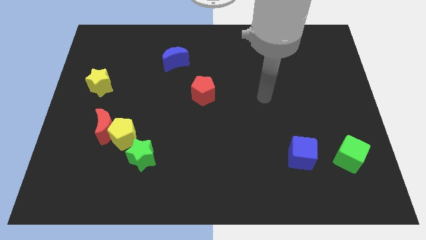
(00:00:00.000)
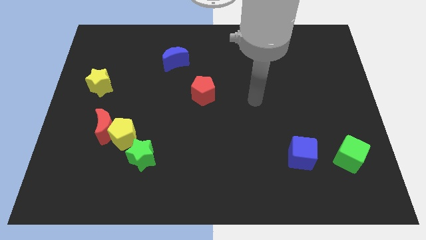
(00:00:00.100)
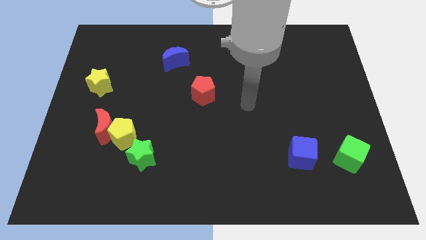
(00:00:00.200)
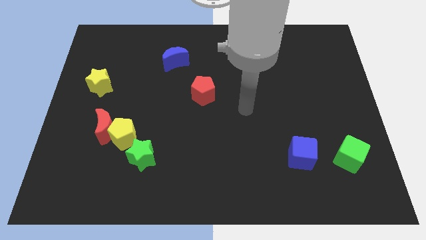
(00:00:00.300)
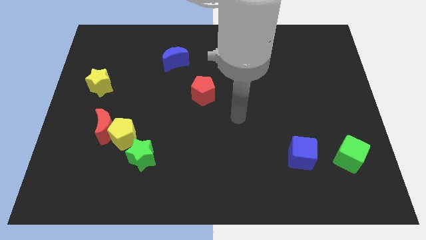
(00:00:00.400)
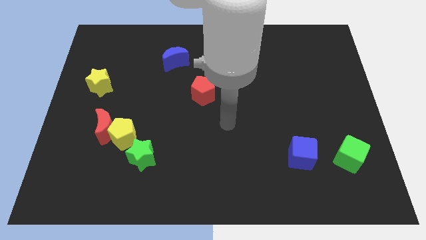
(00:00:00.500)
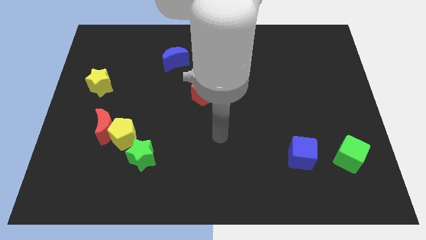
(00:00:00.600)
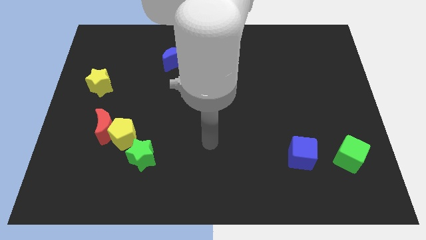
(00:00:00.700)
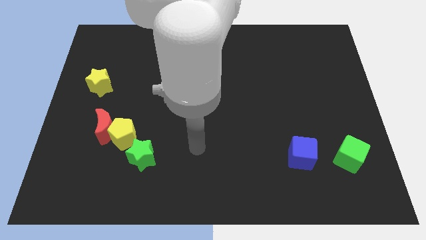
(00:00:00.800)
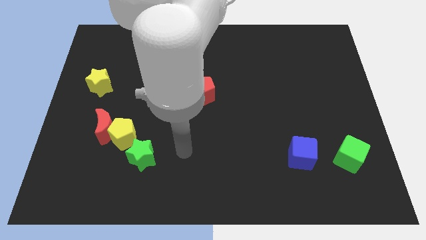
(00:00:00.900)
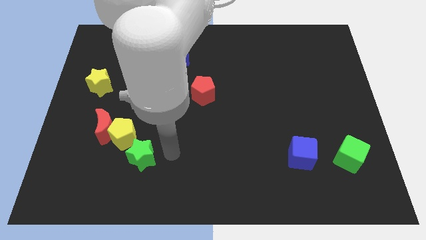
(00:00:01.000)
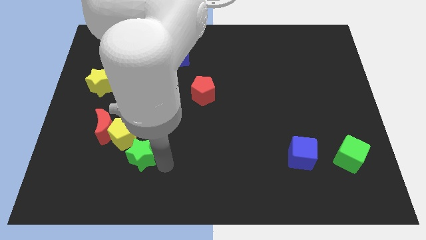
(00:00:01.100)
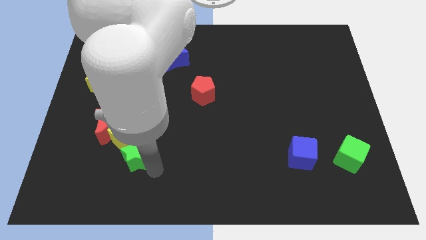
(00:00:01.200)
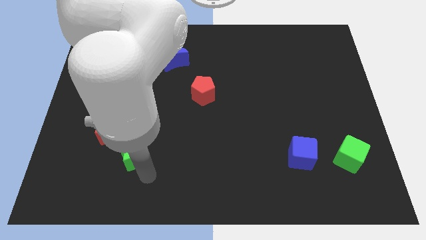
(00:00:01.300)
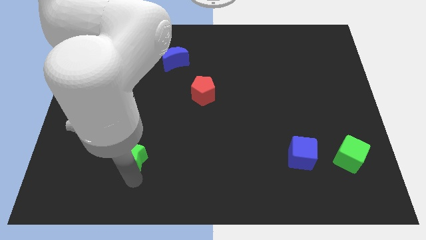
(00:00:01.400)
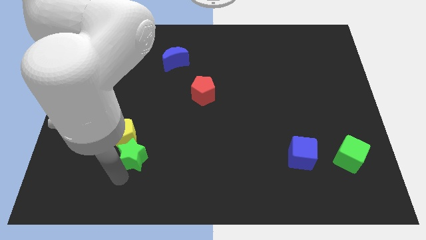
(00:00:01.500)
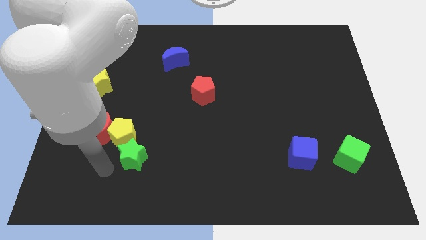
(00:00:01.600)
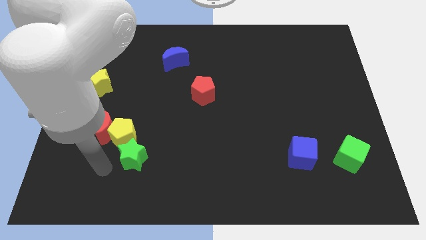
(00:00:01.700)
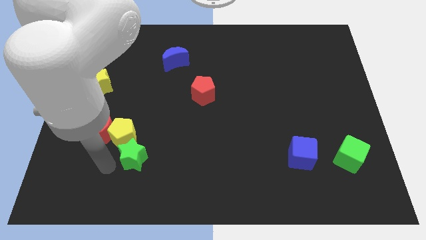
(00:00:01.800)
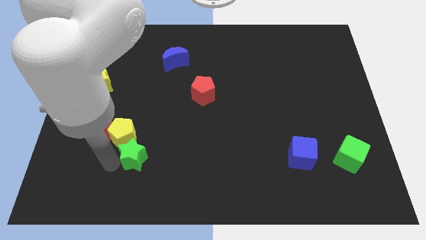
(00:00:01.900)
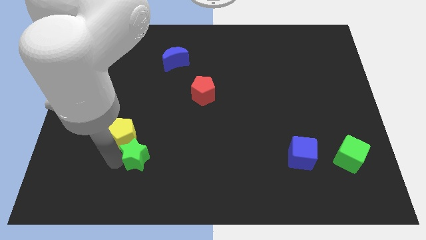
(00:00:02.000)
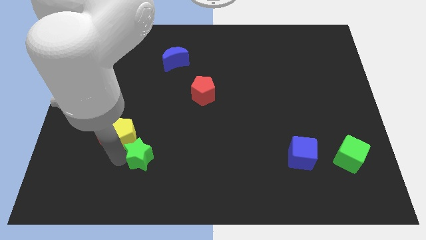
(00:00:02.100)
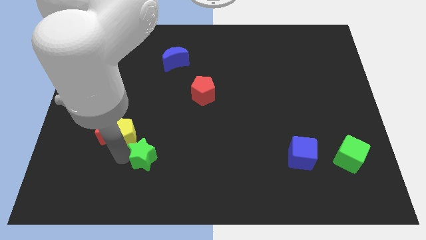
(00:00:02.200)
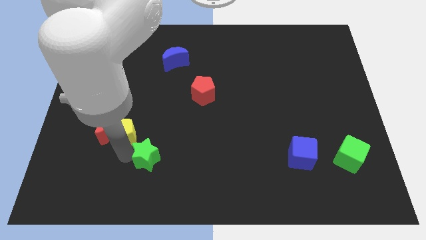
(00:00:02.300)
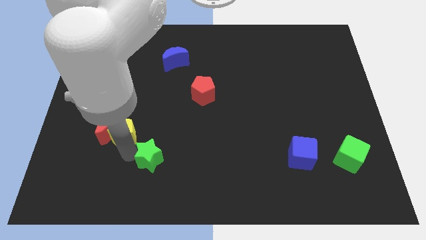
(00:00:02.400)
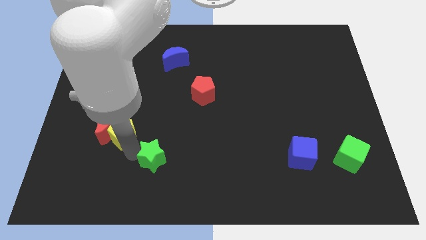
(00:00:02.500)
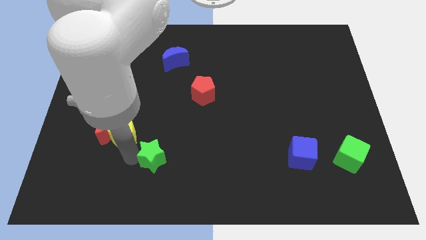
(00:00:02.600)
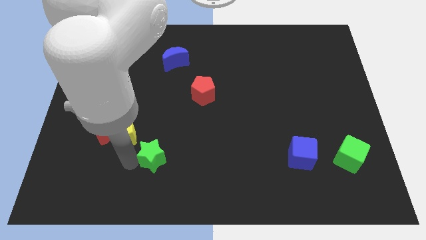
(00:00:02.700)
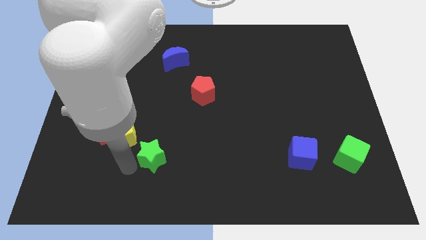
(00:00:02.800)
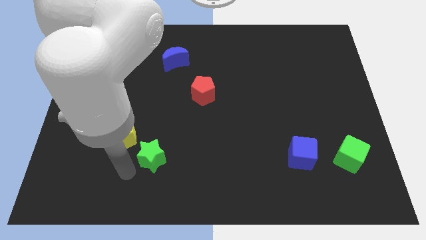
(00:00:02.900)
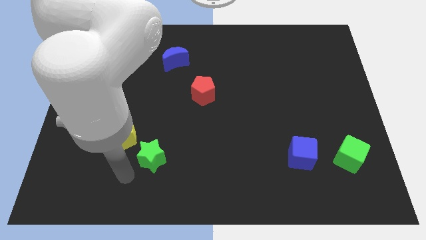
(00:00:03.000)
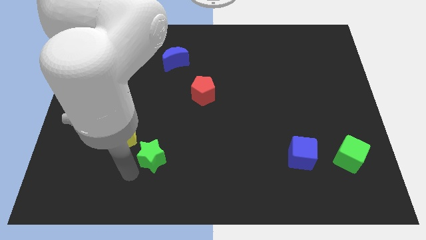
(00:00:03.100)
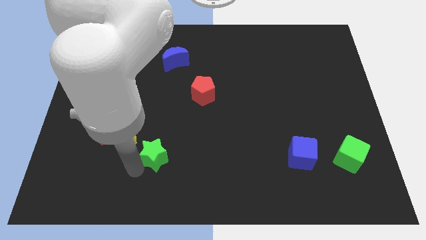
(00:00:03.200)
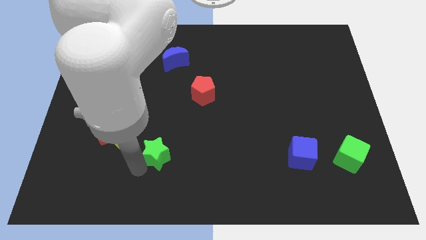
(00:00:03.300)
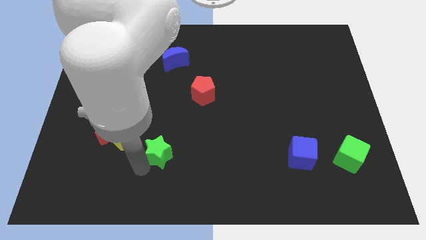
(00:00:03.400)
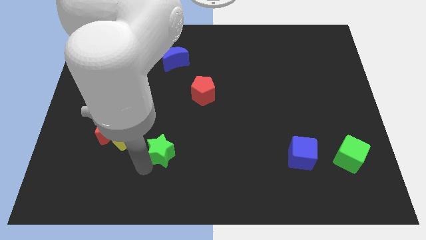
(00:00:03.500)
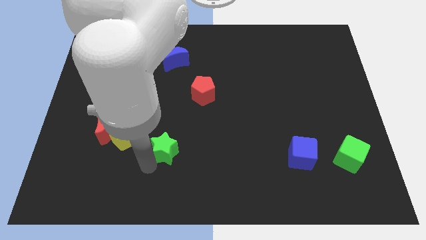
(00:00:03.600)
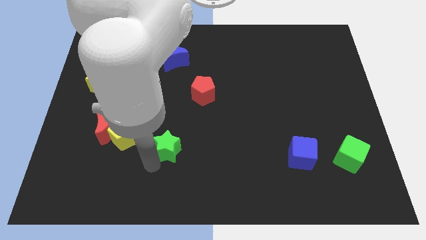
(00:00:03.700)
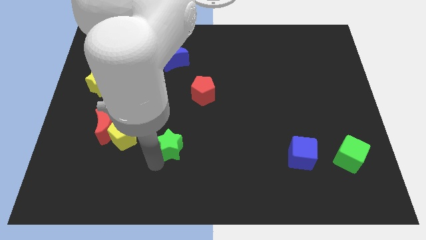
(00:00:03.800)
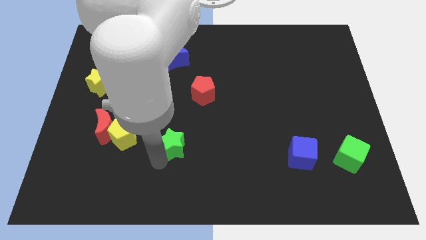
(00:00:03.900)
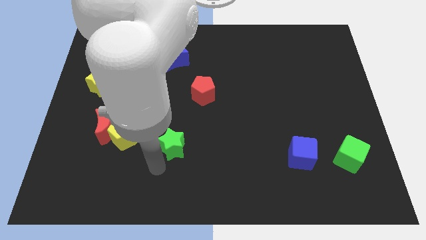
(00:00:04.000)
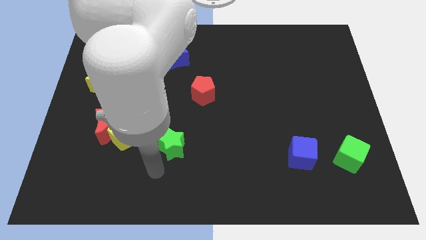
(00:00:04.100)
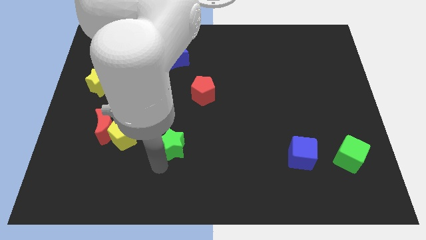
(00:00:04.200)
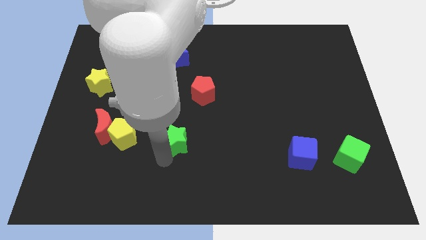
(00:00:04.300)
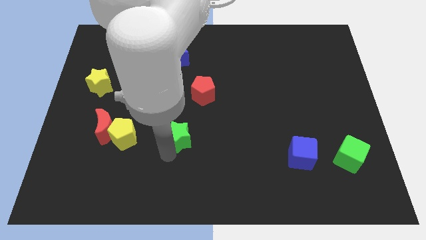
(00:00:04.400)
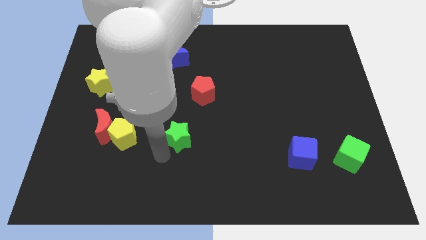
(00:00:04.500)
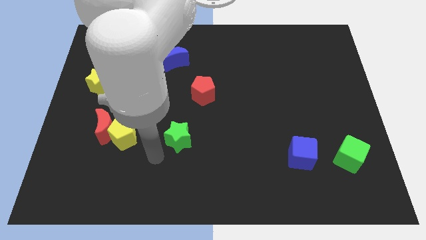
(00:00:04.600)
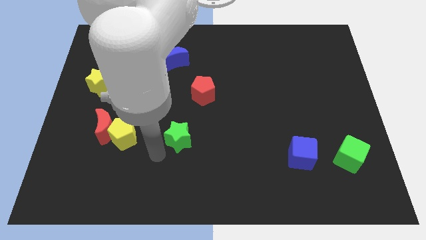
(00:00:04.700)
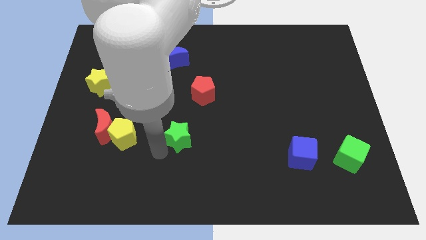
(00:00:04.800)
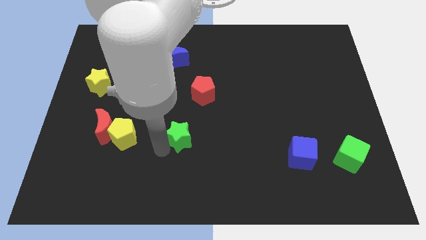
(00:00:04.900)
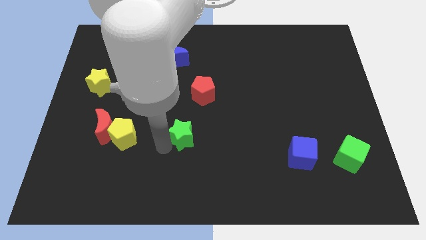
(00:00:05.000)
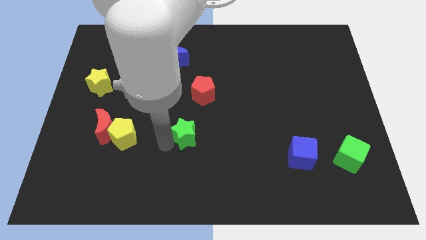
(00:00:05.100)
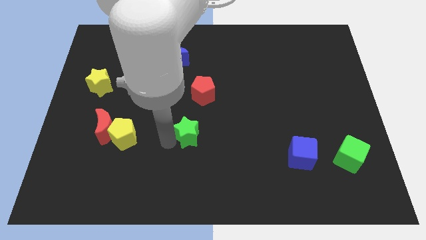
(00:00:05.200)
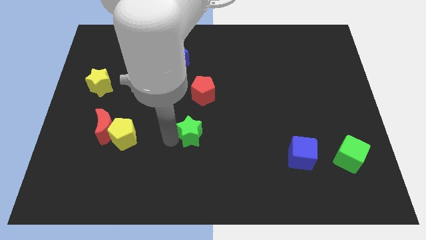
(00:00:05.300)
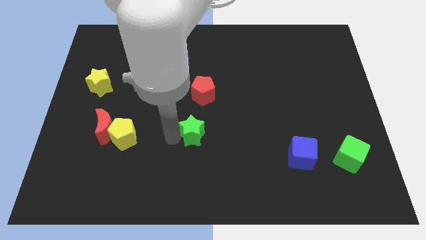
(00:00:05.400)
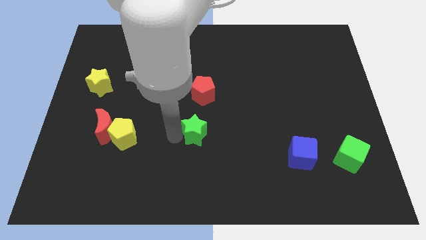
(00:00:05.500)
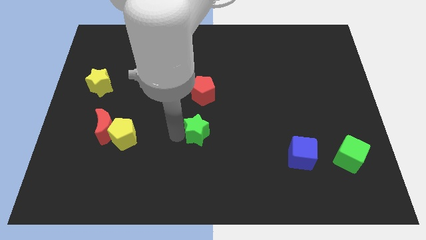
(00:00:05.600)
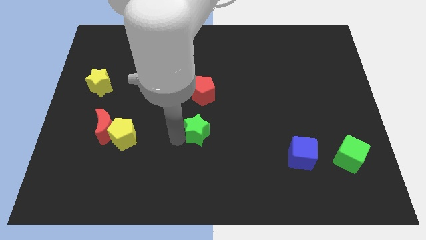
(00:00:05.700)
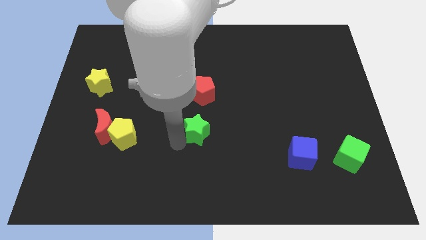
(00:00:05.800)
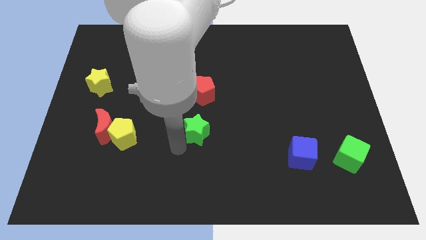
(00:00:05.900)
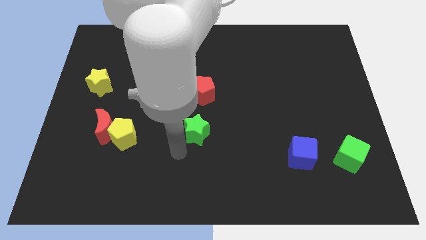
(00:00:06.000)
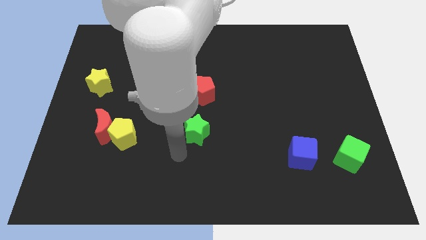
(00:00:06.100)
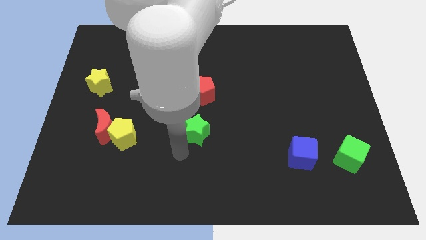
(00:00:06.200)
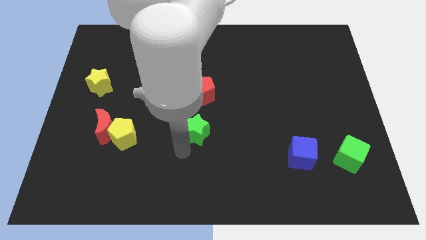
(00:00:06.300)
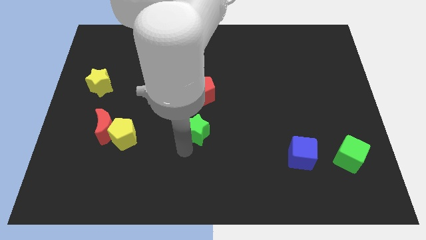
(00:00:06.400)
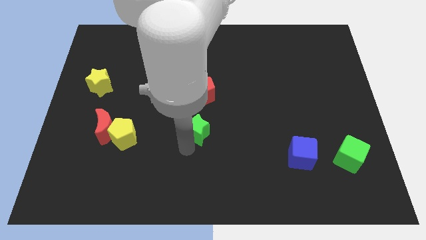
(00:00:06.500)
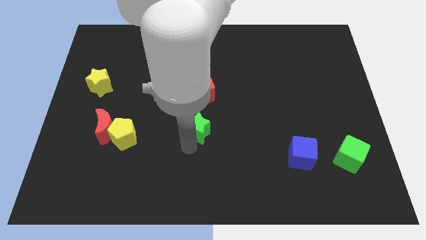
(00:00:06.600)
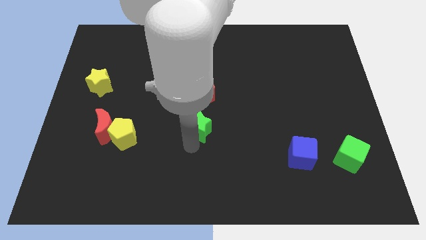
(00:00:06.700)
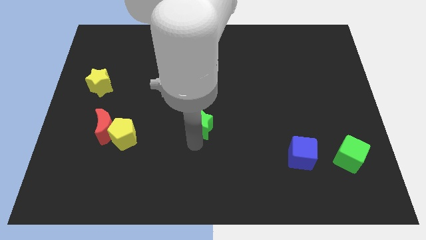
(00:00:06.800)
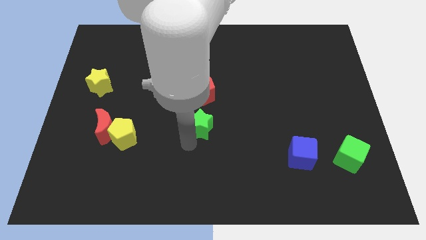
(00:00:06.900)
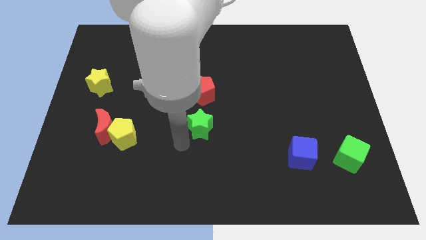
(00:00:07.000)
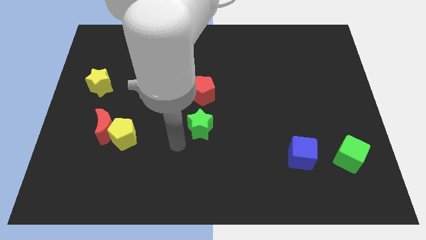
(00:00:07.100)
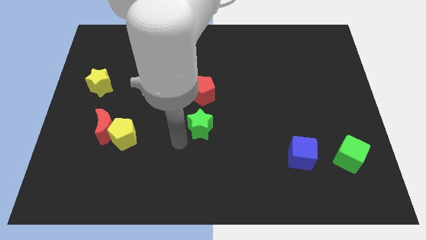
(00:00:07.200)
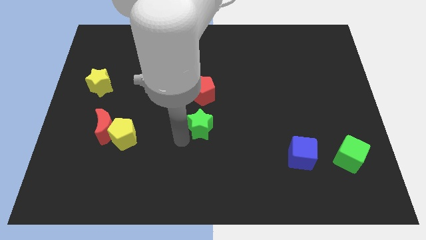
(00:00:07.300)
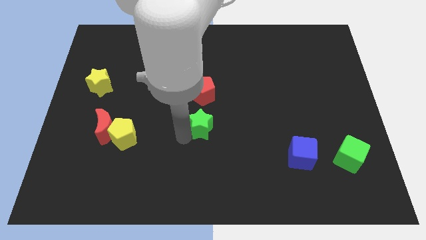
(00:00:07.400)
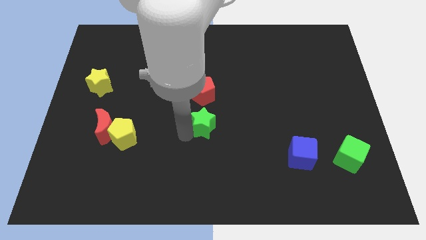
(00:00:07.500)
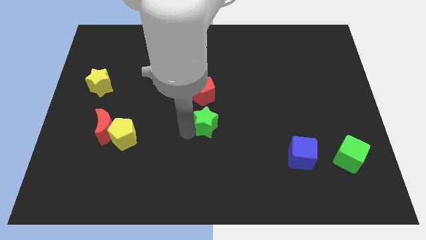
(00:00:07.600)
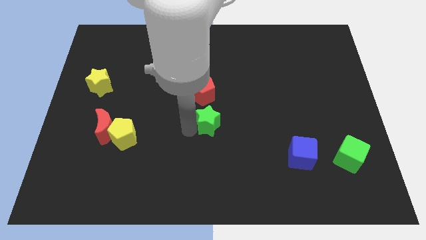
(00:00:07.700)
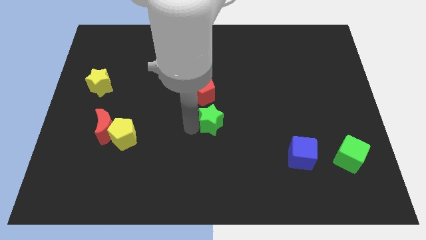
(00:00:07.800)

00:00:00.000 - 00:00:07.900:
put the green star diagonally down and to the right of the red pentagon
